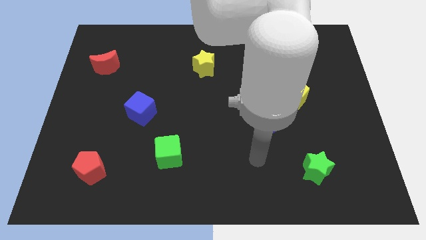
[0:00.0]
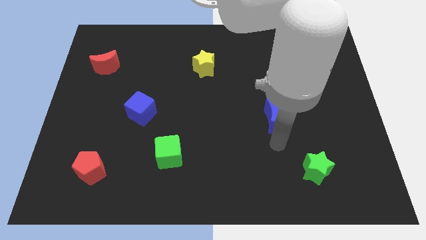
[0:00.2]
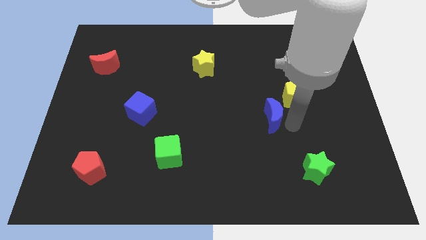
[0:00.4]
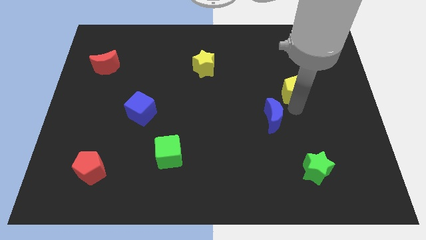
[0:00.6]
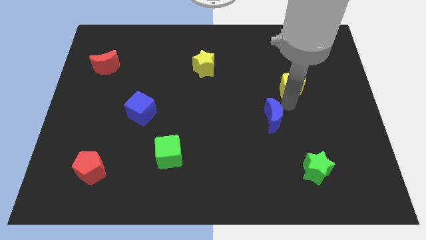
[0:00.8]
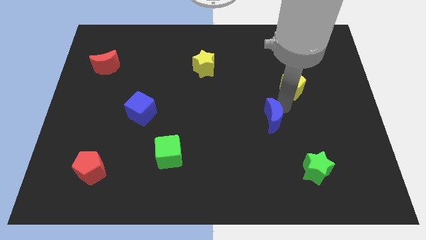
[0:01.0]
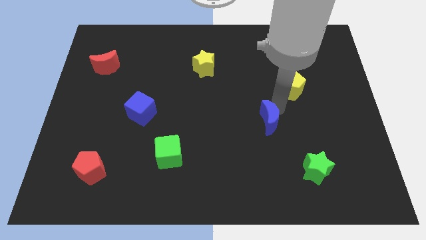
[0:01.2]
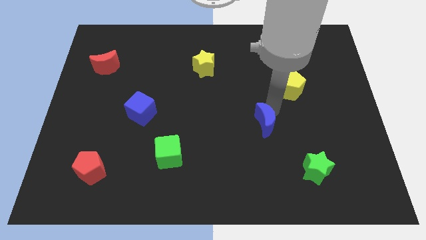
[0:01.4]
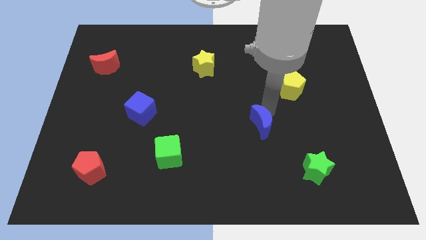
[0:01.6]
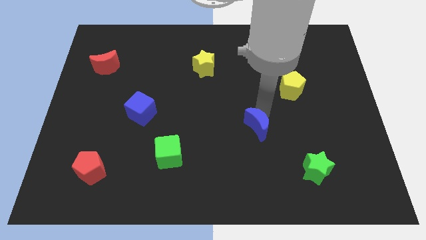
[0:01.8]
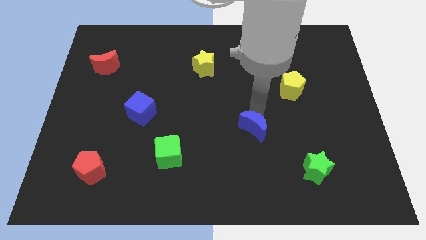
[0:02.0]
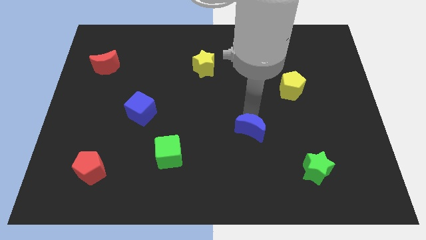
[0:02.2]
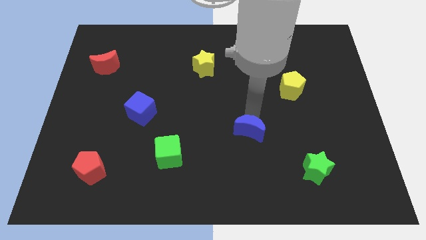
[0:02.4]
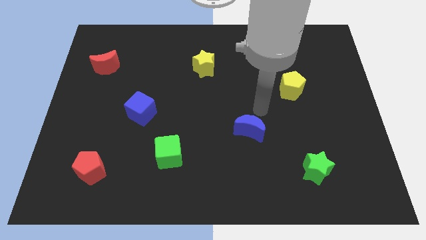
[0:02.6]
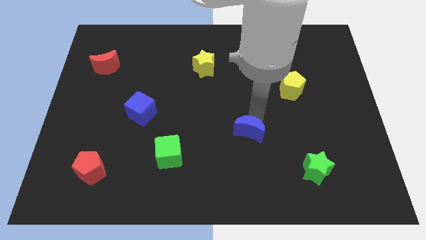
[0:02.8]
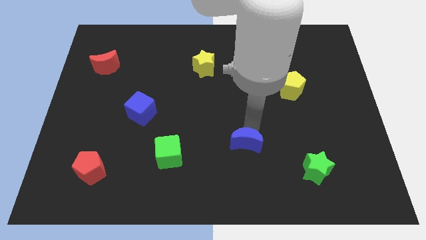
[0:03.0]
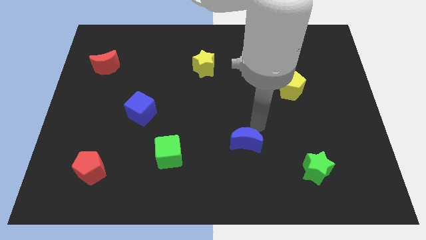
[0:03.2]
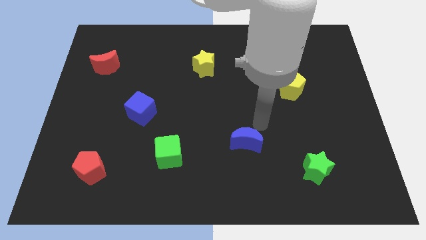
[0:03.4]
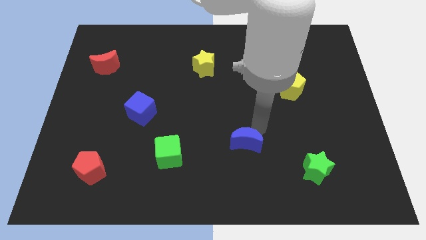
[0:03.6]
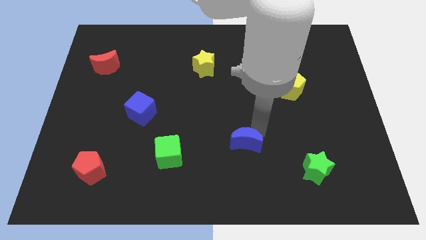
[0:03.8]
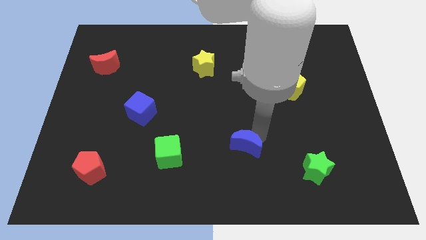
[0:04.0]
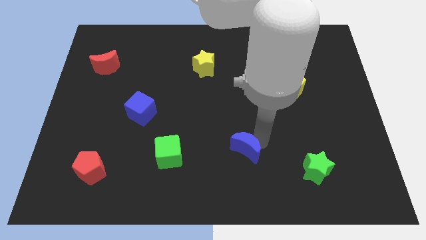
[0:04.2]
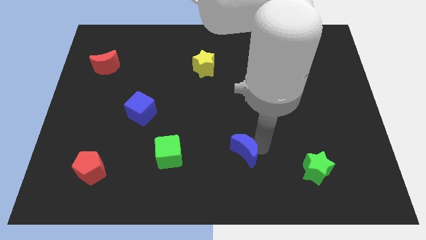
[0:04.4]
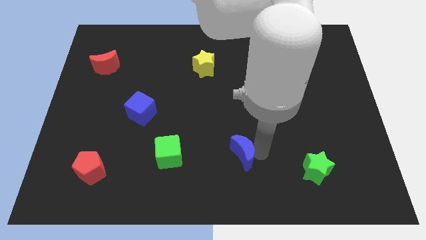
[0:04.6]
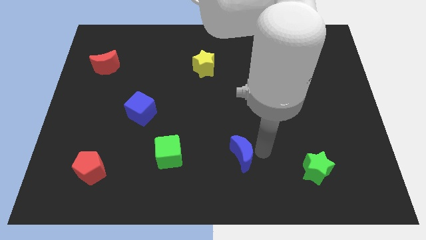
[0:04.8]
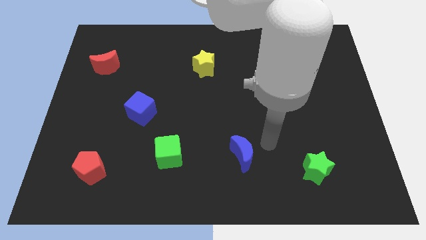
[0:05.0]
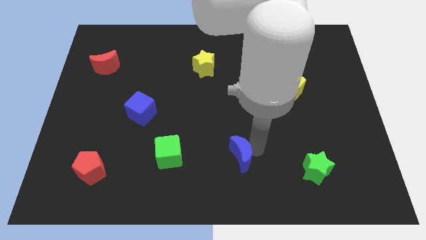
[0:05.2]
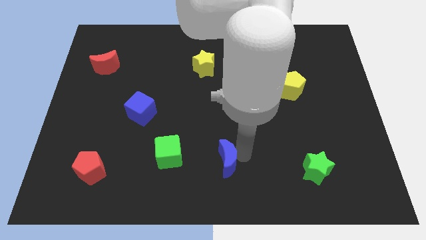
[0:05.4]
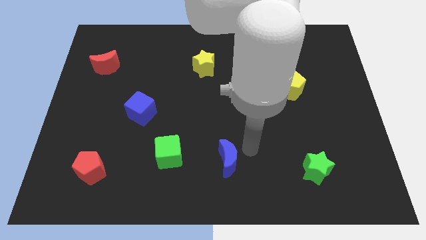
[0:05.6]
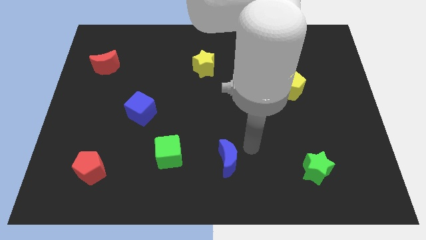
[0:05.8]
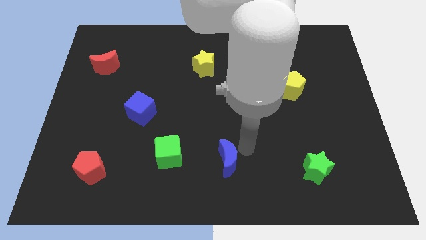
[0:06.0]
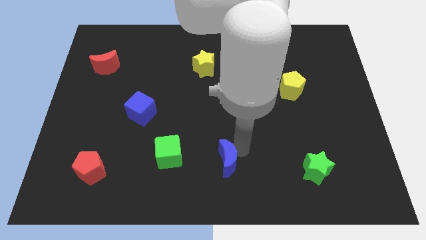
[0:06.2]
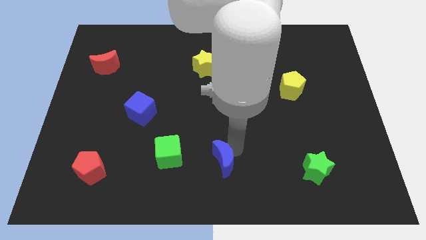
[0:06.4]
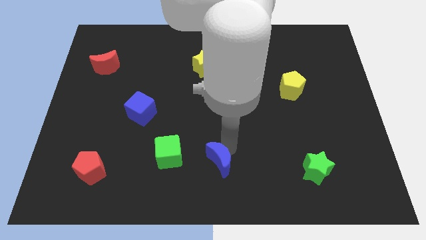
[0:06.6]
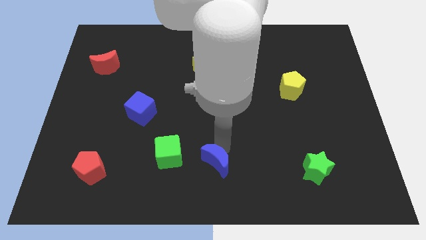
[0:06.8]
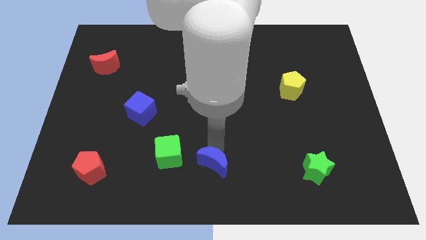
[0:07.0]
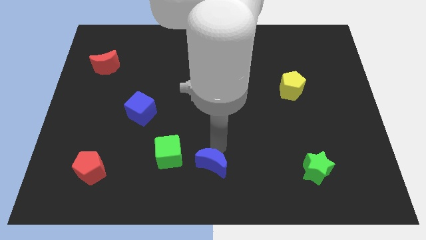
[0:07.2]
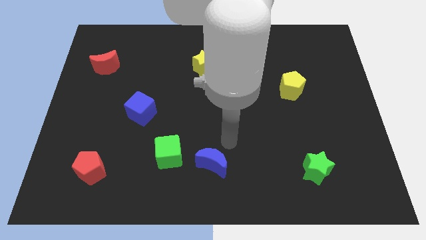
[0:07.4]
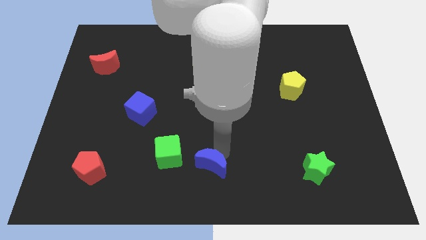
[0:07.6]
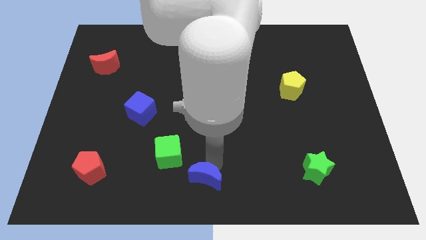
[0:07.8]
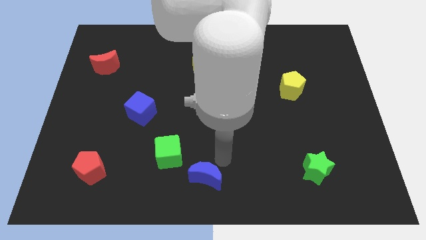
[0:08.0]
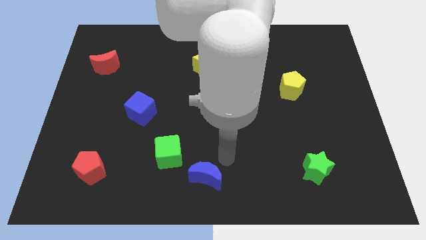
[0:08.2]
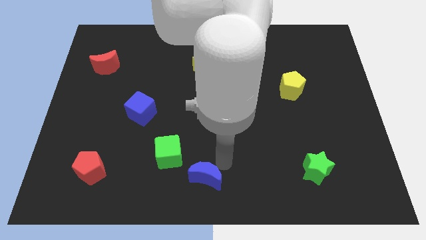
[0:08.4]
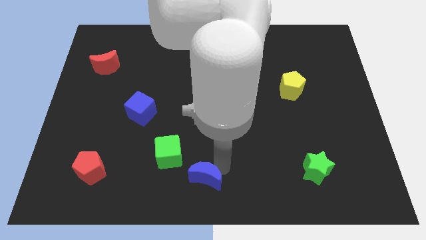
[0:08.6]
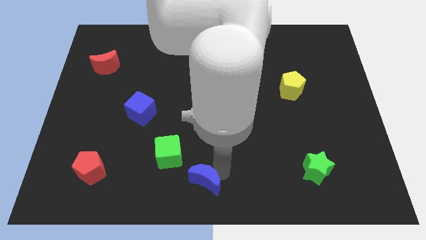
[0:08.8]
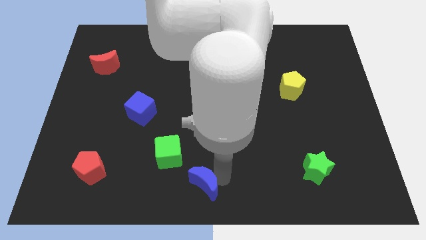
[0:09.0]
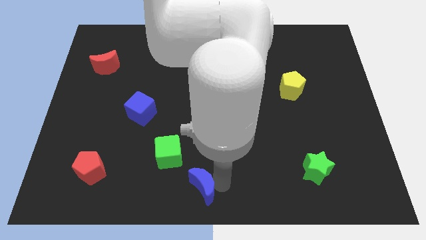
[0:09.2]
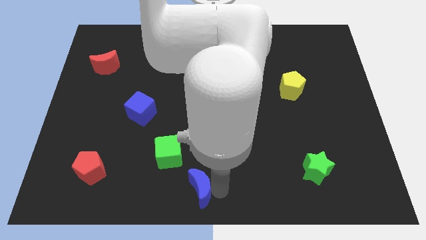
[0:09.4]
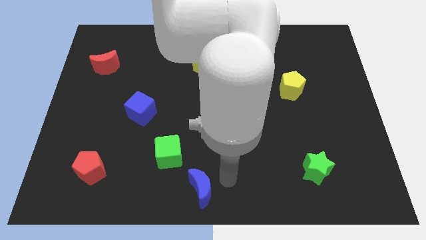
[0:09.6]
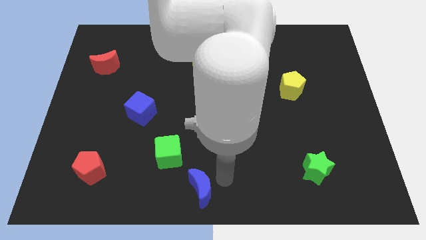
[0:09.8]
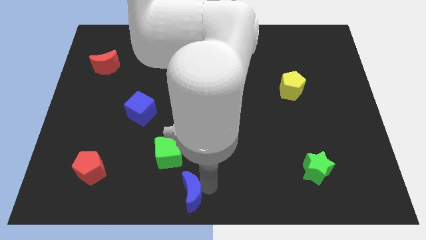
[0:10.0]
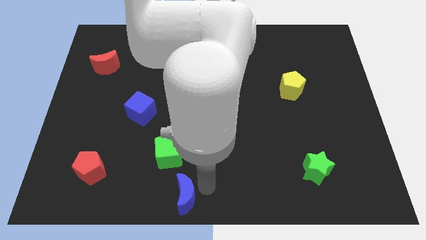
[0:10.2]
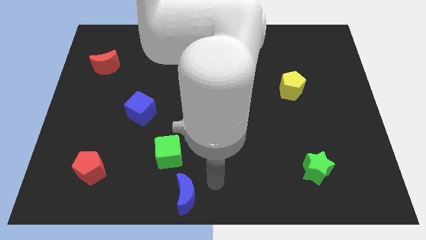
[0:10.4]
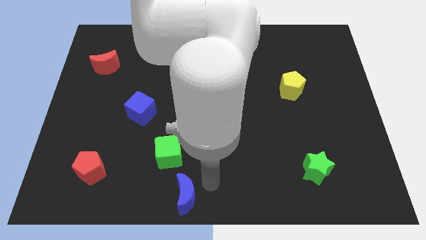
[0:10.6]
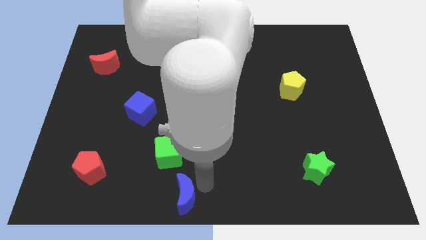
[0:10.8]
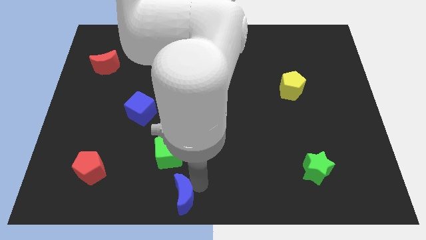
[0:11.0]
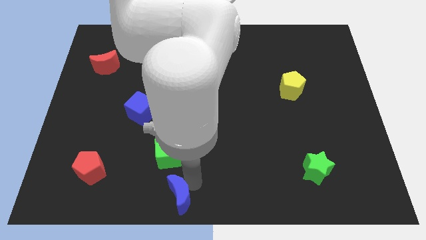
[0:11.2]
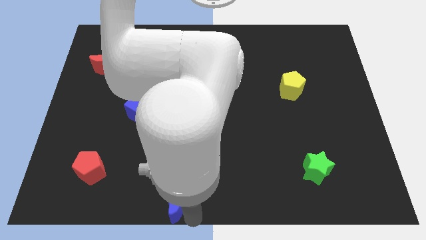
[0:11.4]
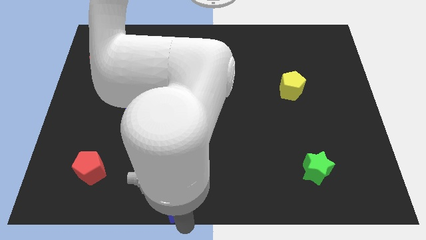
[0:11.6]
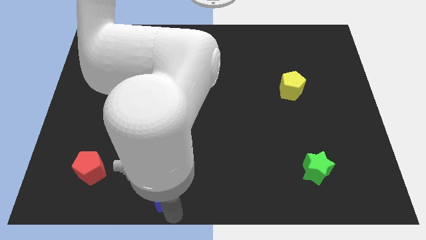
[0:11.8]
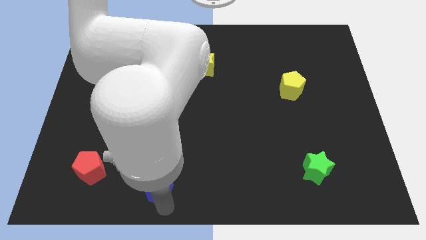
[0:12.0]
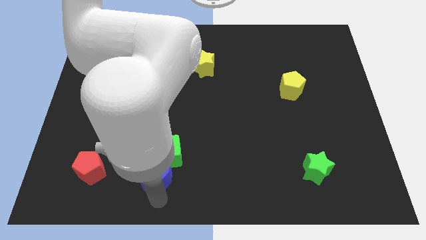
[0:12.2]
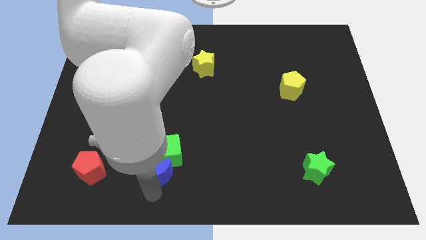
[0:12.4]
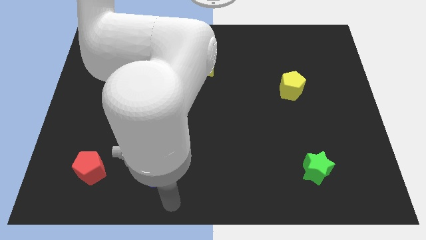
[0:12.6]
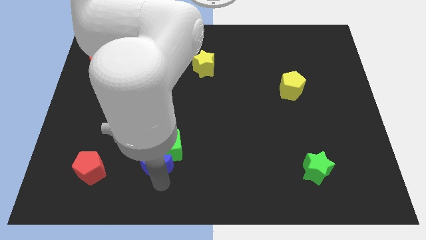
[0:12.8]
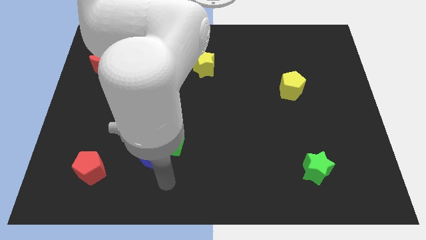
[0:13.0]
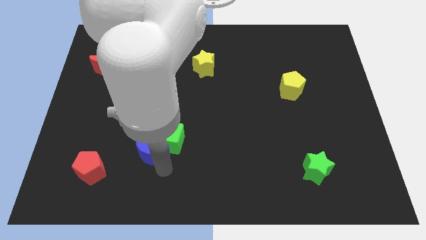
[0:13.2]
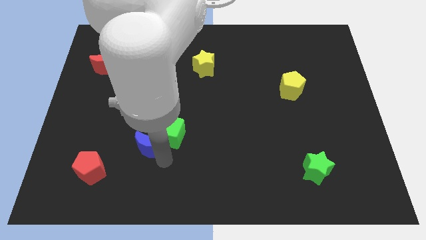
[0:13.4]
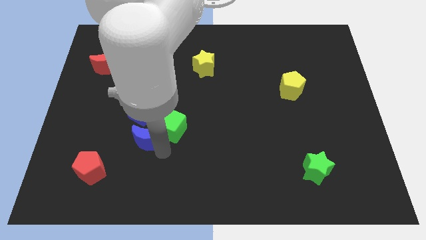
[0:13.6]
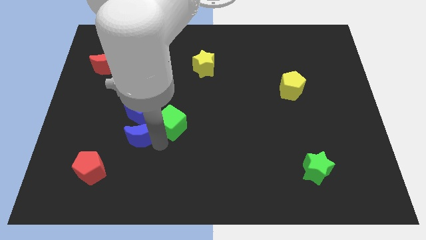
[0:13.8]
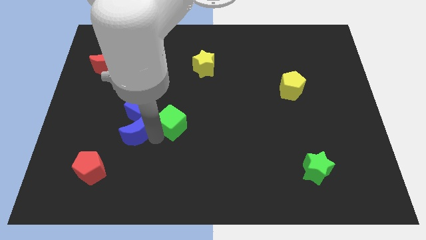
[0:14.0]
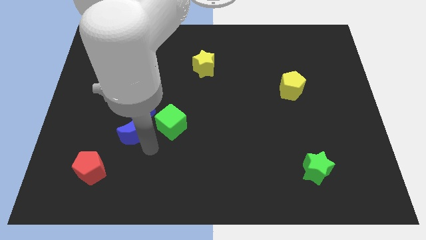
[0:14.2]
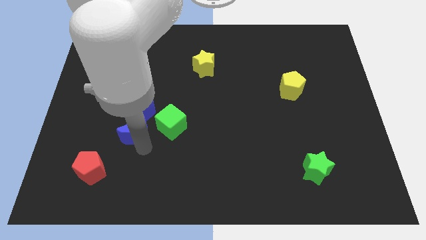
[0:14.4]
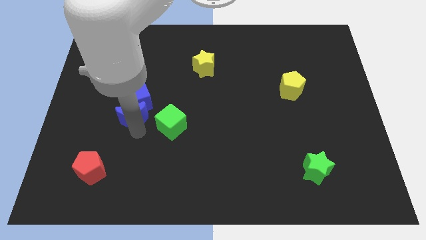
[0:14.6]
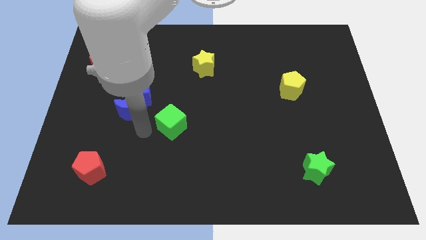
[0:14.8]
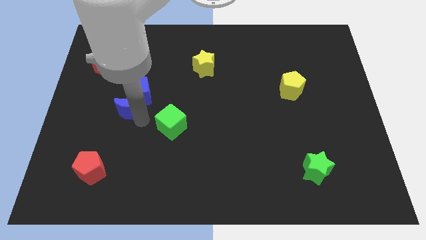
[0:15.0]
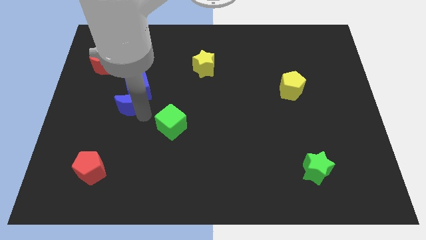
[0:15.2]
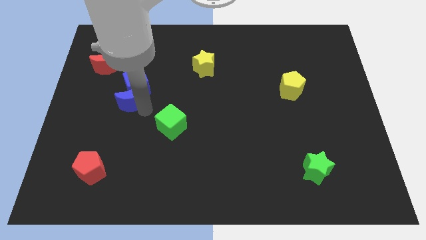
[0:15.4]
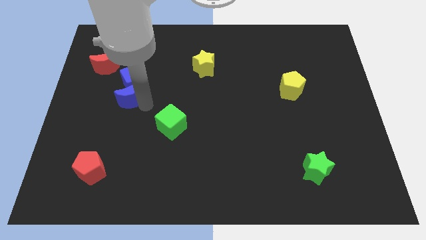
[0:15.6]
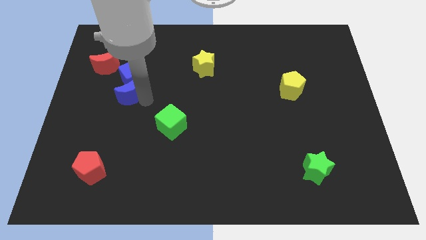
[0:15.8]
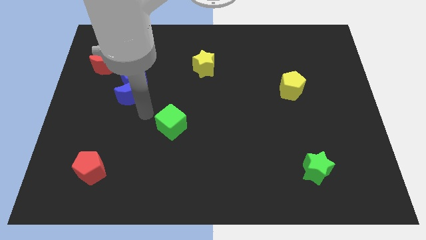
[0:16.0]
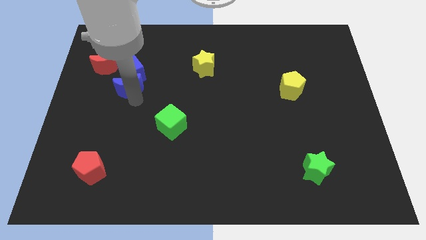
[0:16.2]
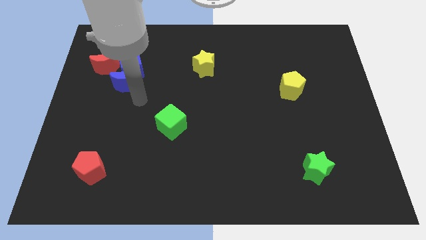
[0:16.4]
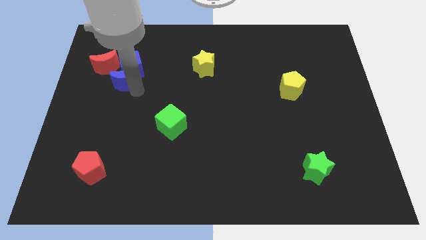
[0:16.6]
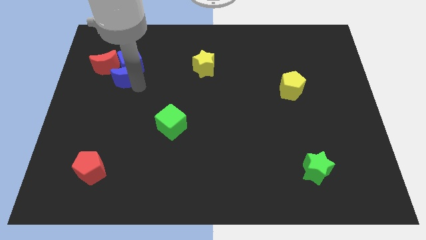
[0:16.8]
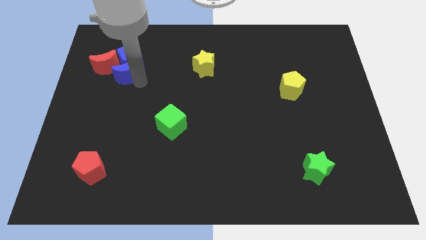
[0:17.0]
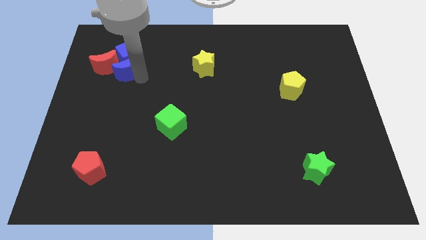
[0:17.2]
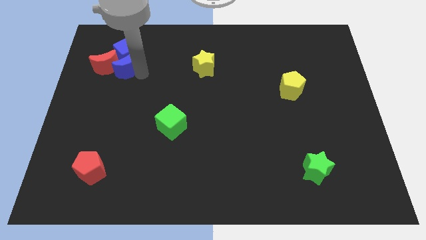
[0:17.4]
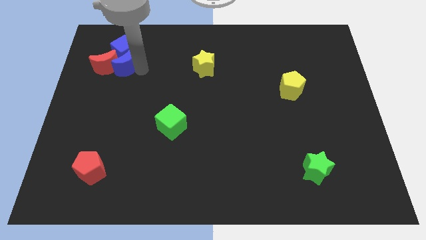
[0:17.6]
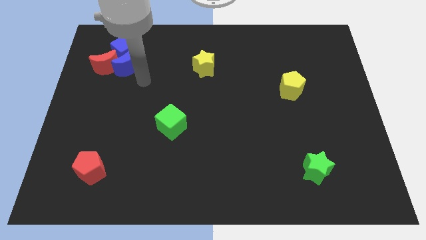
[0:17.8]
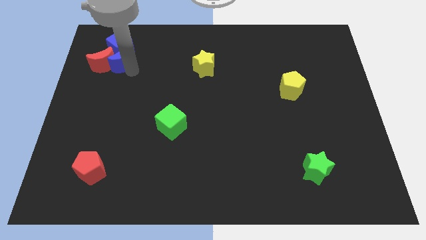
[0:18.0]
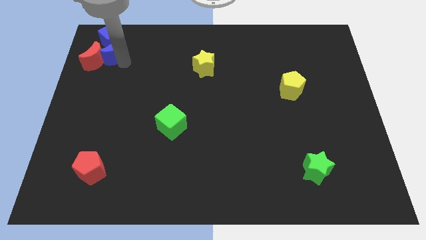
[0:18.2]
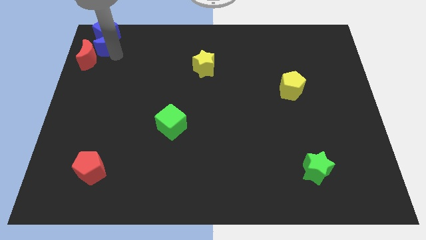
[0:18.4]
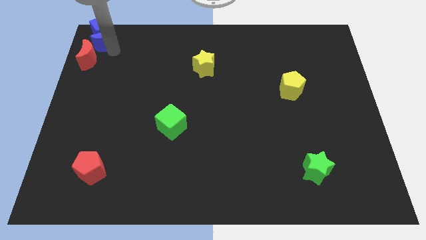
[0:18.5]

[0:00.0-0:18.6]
move the blue moon to the upper left corner
